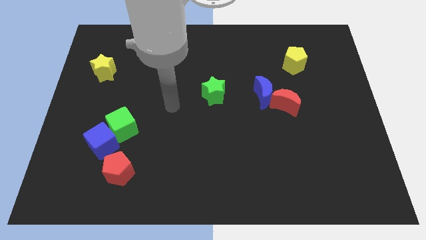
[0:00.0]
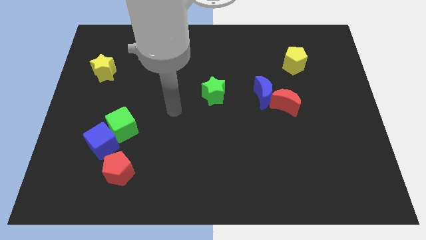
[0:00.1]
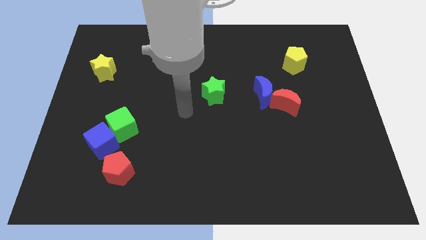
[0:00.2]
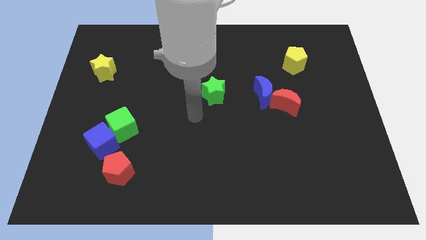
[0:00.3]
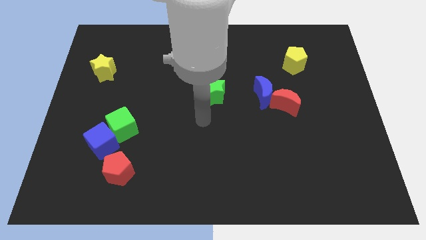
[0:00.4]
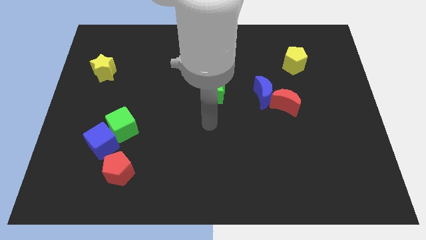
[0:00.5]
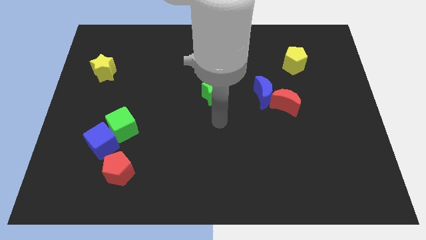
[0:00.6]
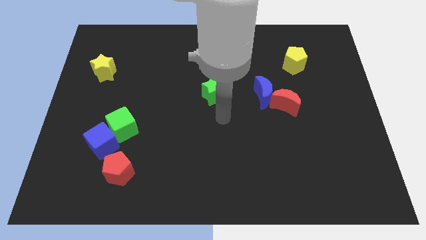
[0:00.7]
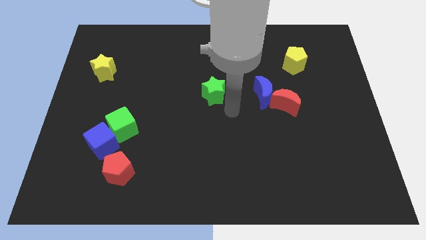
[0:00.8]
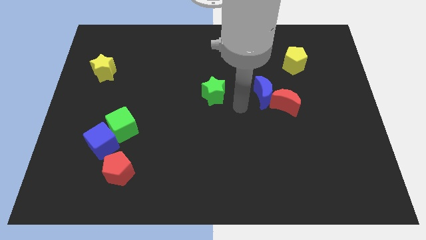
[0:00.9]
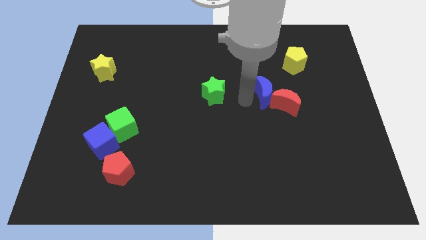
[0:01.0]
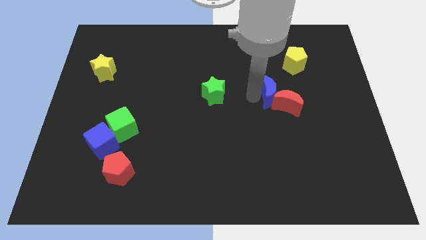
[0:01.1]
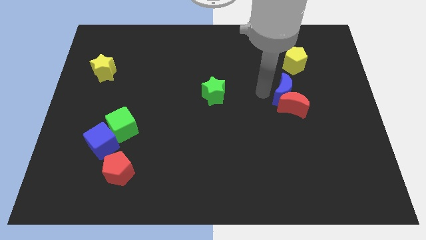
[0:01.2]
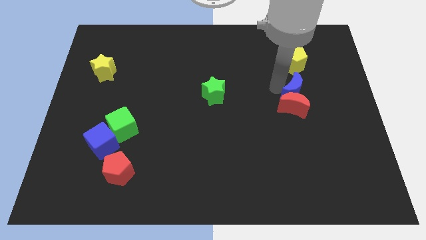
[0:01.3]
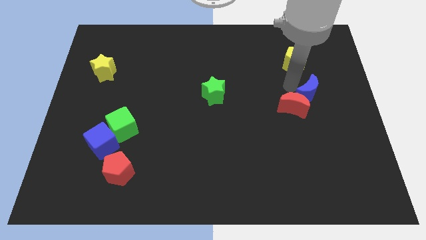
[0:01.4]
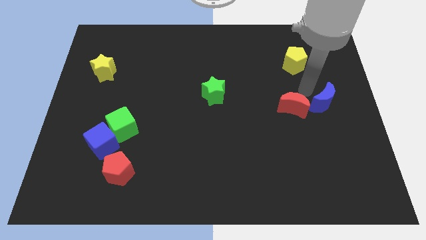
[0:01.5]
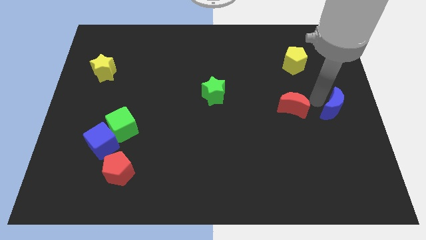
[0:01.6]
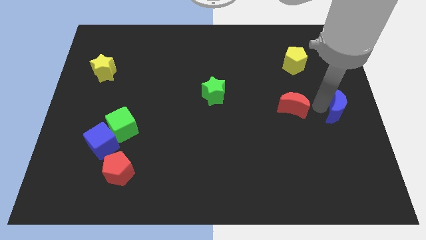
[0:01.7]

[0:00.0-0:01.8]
move the red moon away from the blue moon

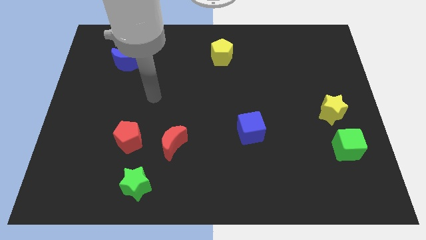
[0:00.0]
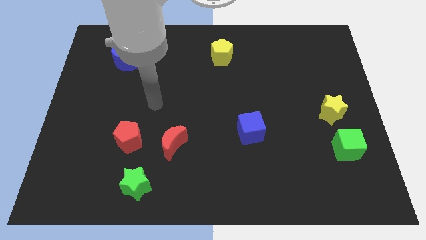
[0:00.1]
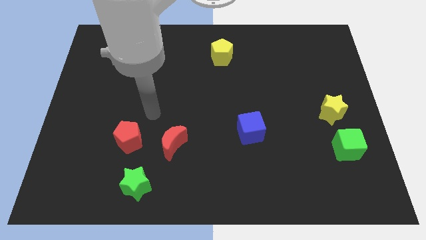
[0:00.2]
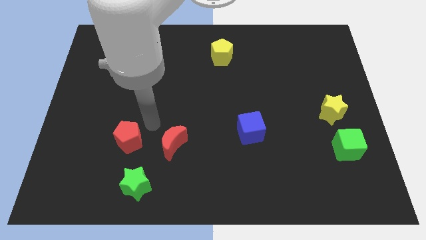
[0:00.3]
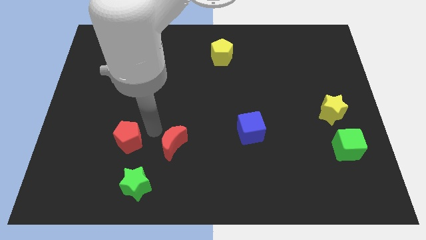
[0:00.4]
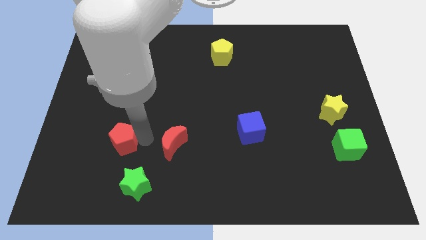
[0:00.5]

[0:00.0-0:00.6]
move the red moon away from the red pentagon

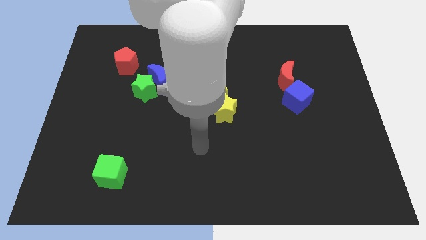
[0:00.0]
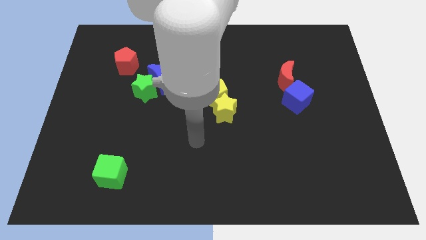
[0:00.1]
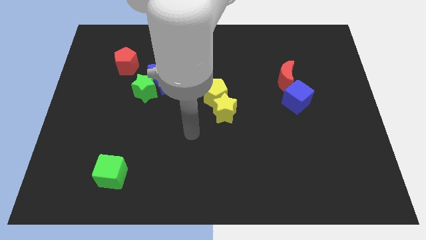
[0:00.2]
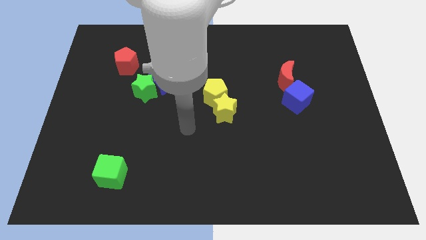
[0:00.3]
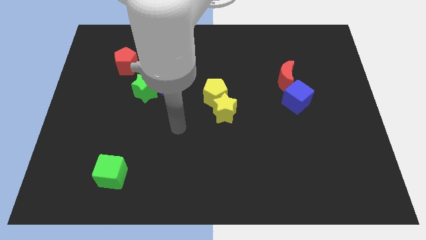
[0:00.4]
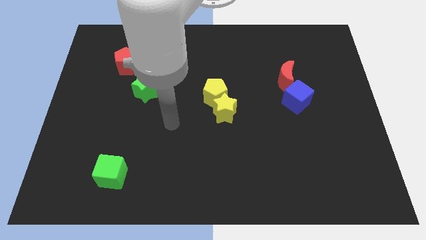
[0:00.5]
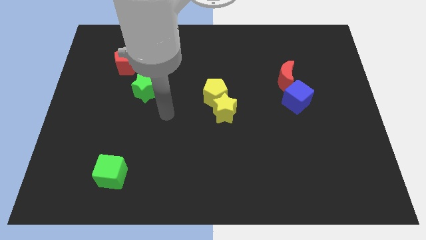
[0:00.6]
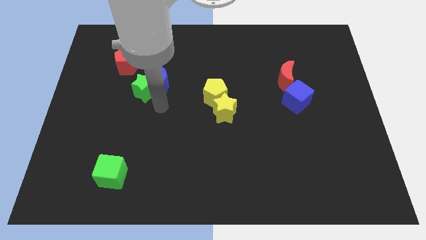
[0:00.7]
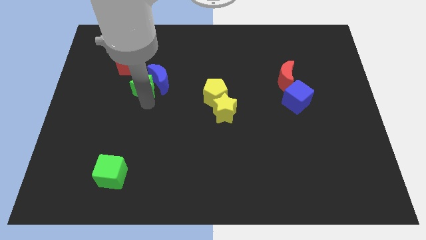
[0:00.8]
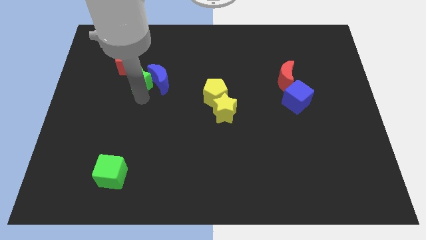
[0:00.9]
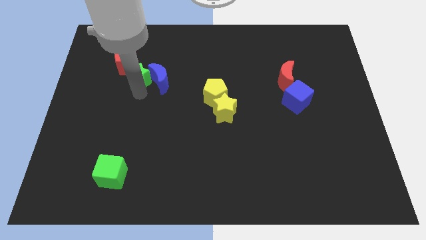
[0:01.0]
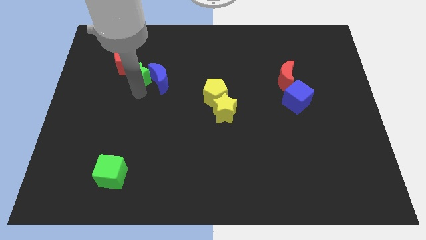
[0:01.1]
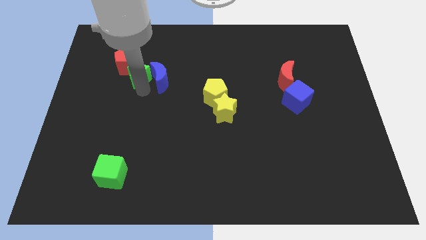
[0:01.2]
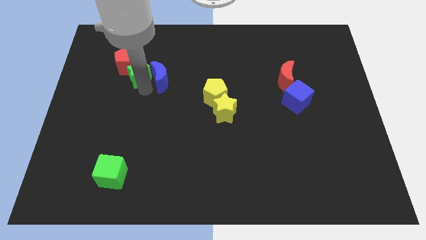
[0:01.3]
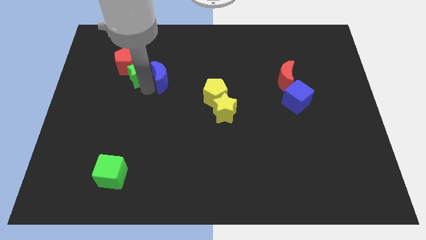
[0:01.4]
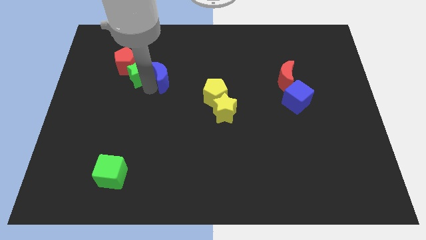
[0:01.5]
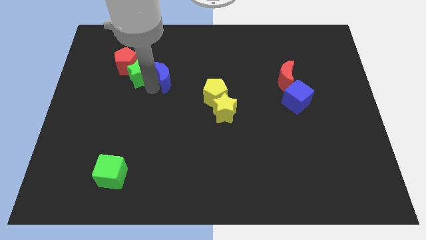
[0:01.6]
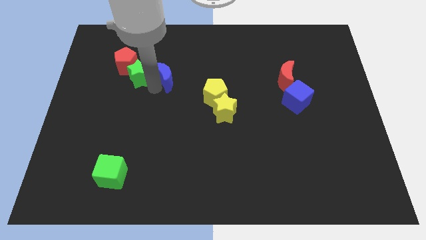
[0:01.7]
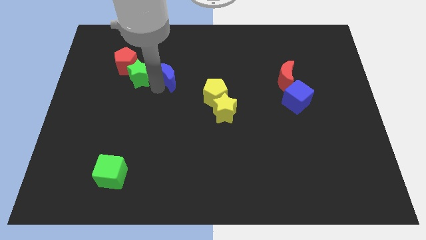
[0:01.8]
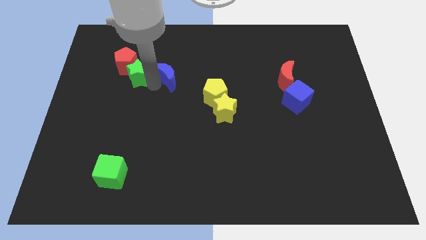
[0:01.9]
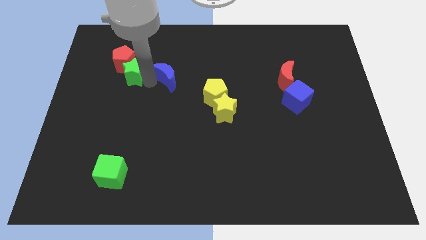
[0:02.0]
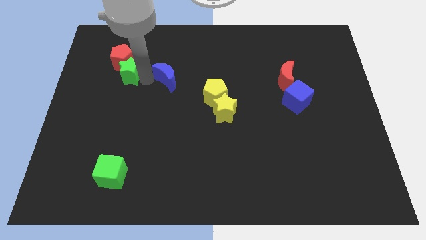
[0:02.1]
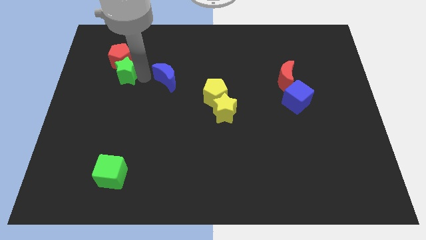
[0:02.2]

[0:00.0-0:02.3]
separate the blue moon from the green star

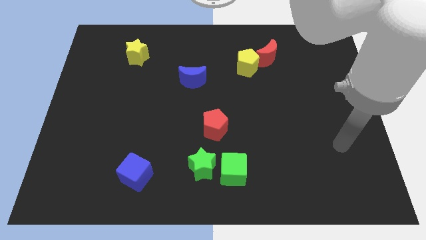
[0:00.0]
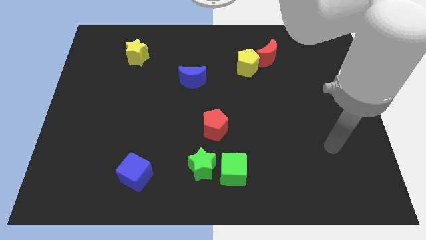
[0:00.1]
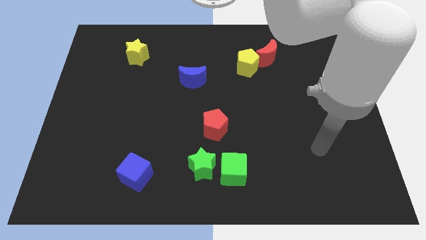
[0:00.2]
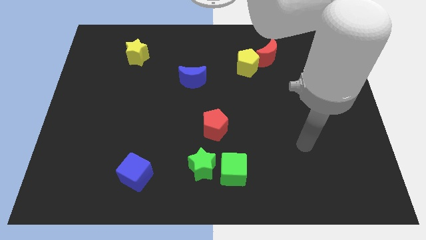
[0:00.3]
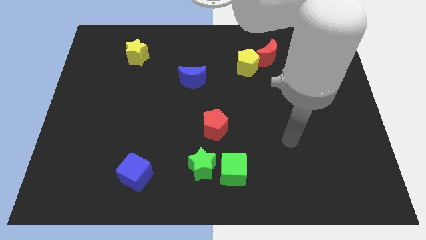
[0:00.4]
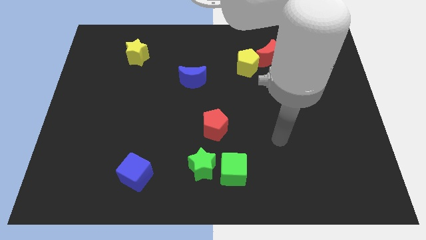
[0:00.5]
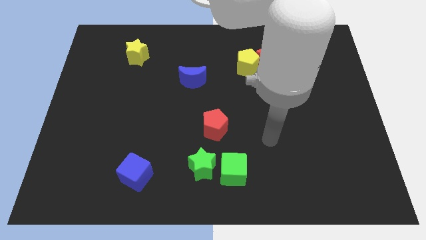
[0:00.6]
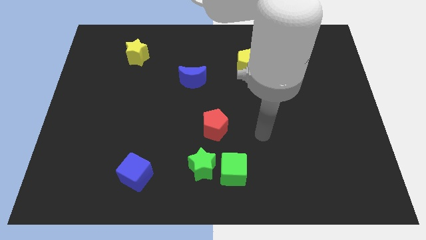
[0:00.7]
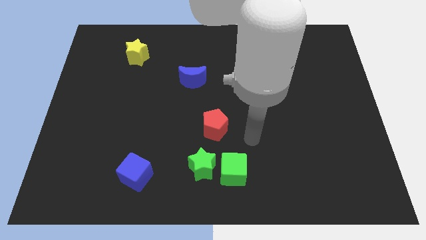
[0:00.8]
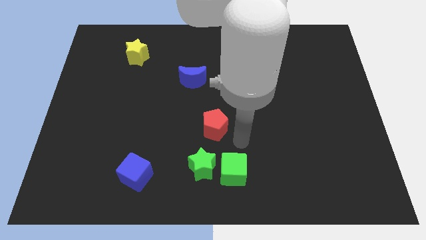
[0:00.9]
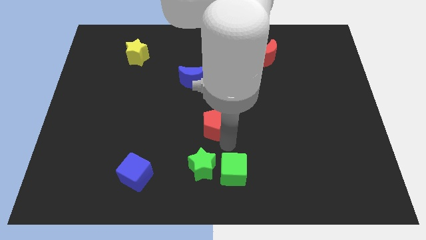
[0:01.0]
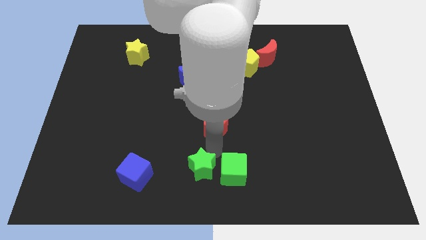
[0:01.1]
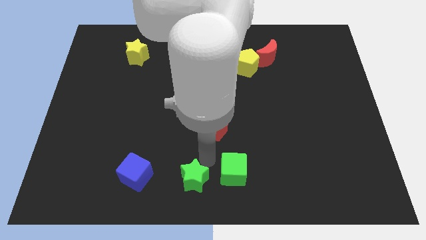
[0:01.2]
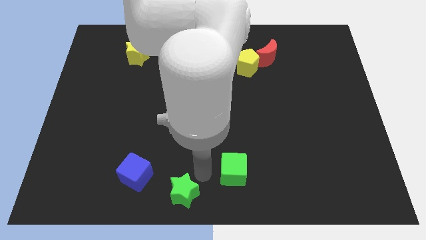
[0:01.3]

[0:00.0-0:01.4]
move the green cube away from the green star

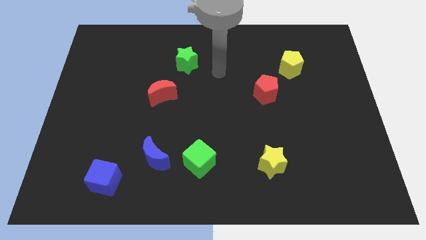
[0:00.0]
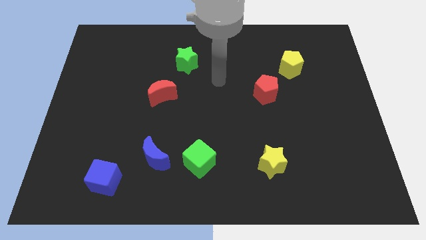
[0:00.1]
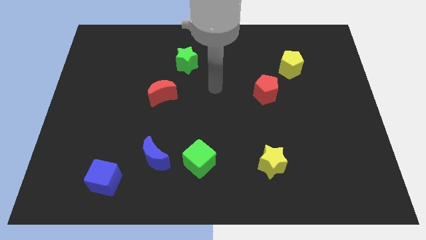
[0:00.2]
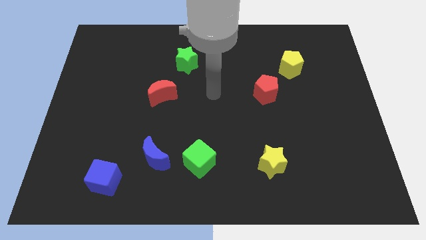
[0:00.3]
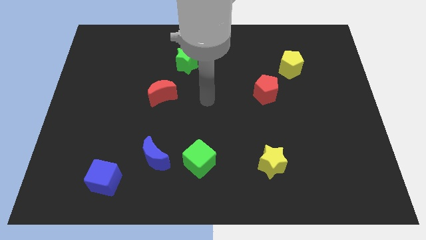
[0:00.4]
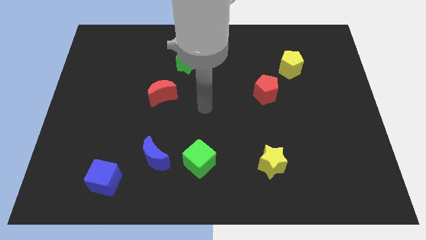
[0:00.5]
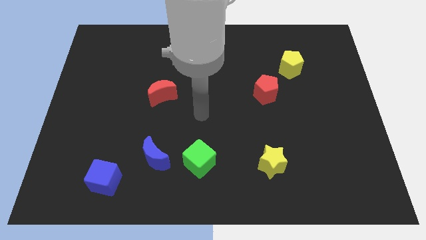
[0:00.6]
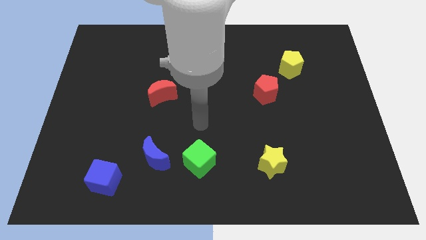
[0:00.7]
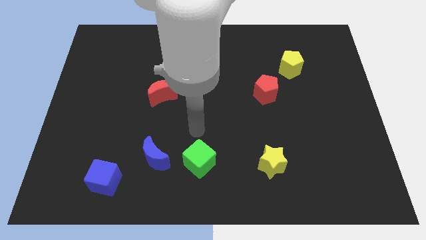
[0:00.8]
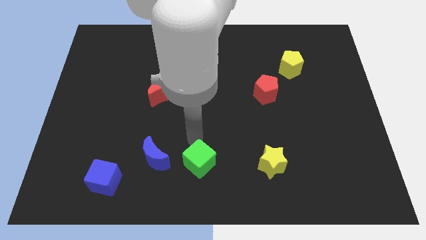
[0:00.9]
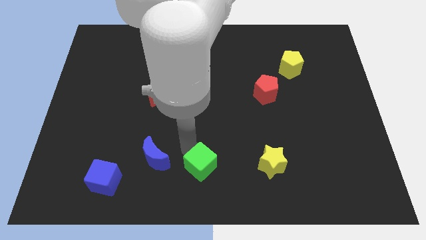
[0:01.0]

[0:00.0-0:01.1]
move the blue moon away from the green cube

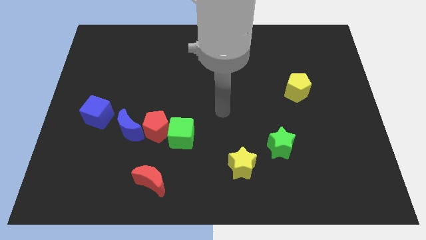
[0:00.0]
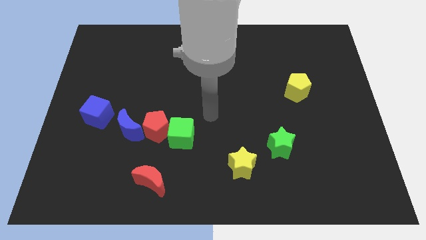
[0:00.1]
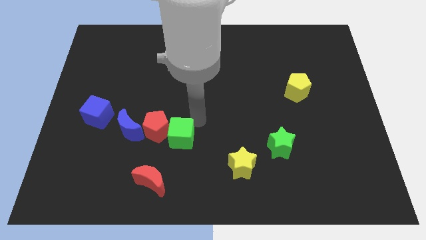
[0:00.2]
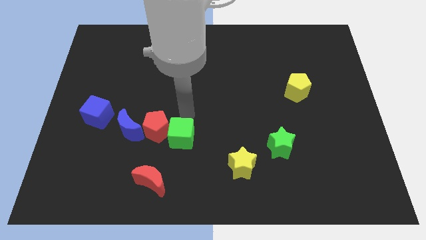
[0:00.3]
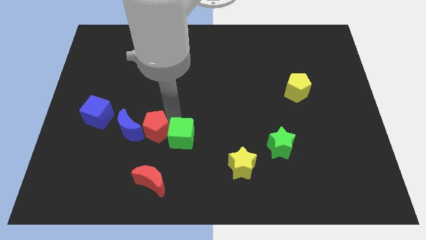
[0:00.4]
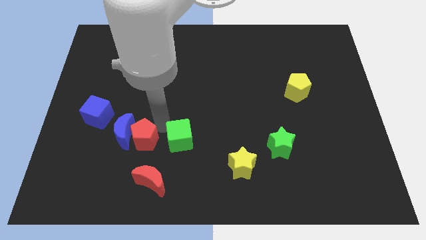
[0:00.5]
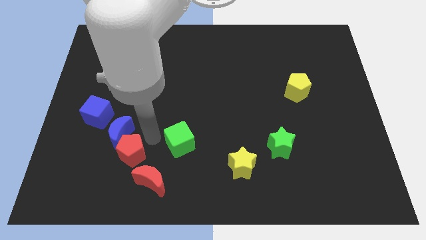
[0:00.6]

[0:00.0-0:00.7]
pull the green cube apart from the red pentagon

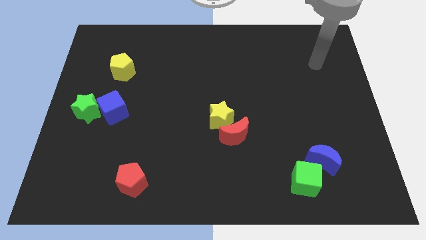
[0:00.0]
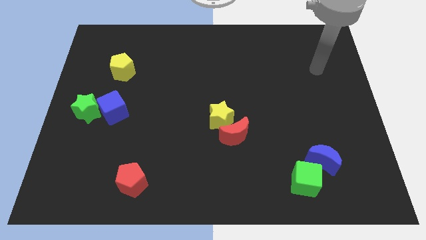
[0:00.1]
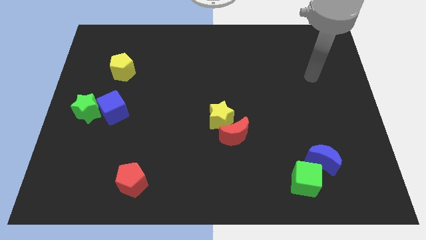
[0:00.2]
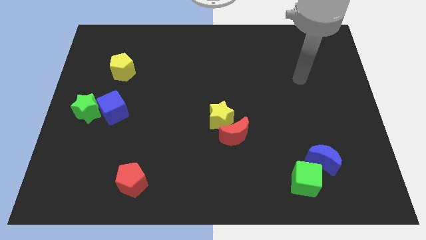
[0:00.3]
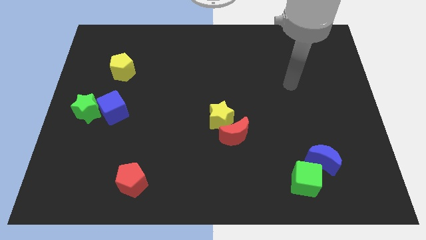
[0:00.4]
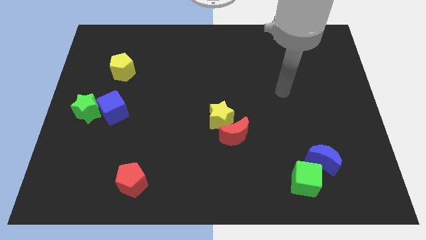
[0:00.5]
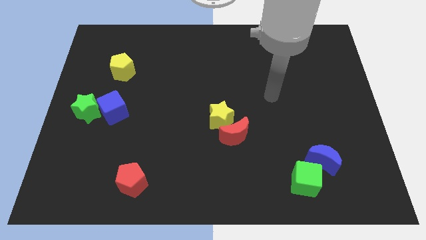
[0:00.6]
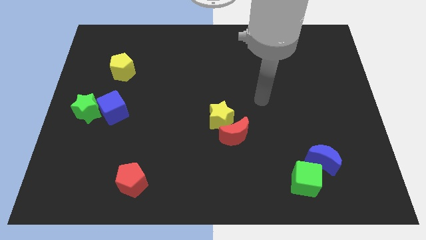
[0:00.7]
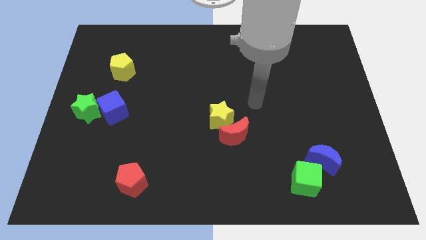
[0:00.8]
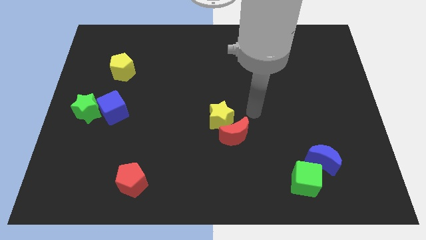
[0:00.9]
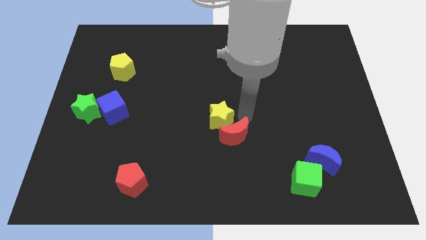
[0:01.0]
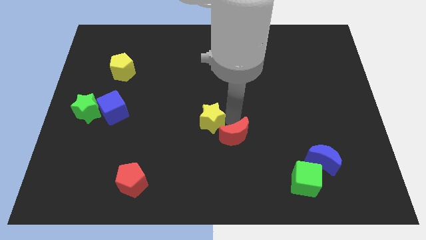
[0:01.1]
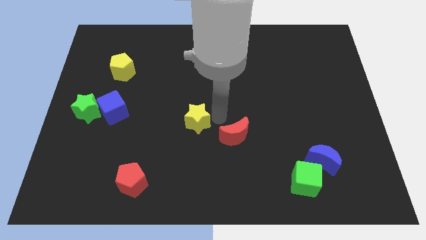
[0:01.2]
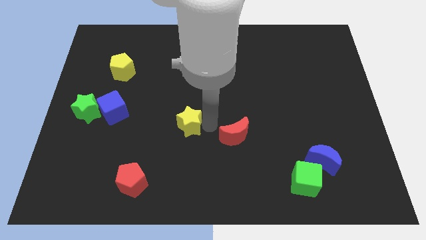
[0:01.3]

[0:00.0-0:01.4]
move the red moon away from the yellow star
